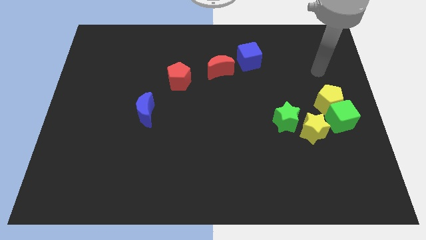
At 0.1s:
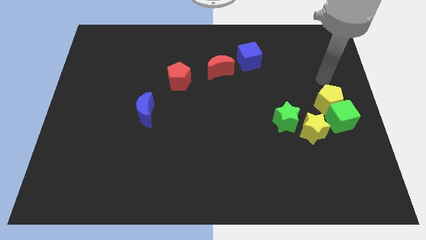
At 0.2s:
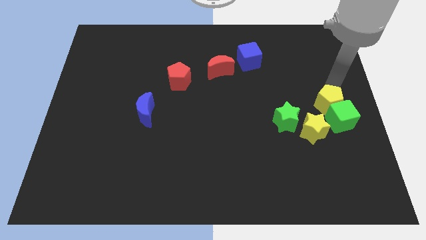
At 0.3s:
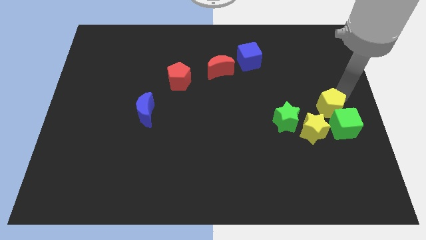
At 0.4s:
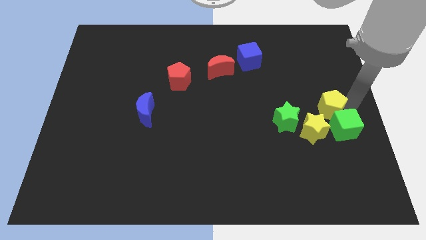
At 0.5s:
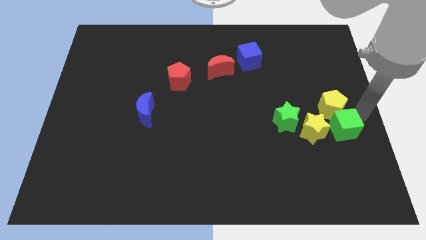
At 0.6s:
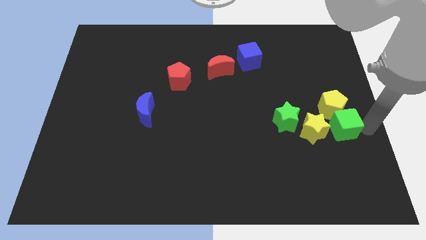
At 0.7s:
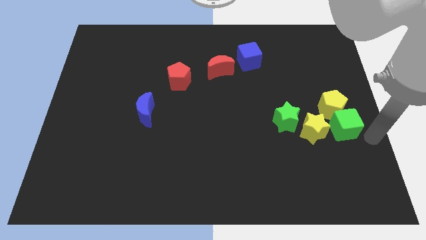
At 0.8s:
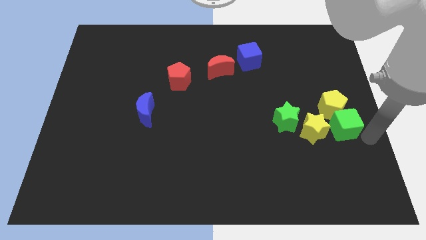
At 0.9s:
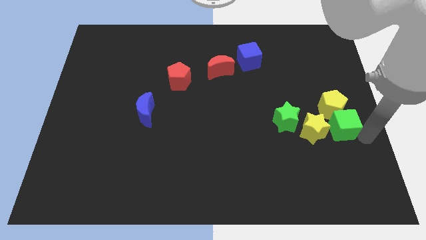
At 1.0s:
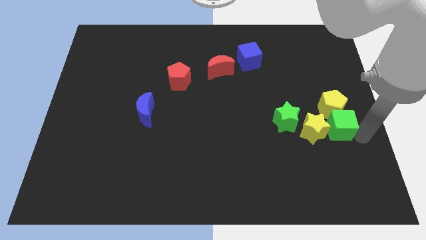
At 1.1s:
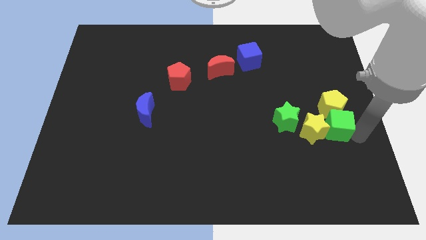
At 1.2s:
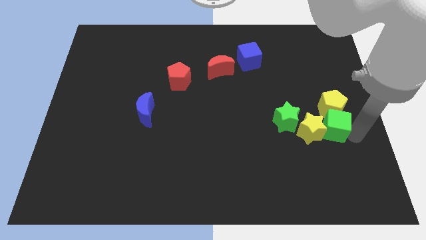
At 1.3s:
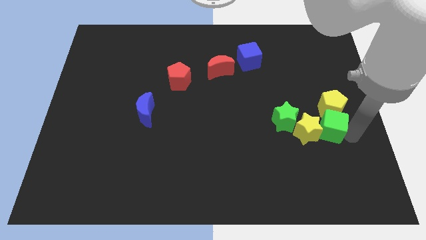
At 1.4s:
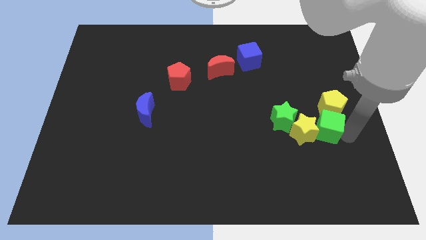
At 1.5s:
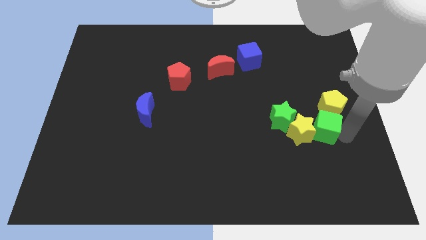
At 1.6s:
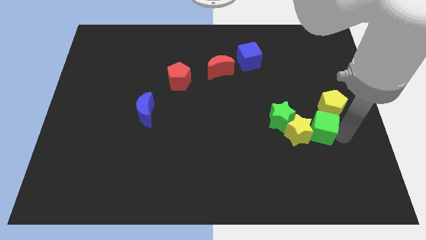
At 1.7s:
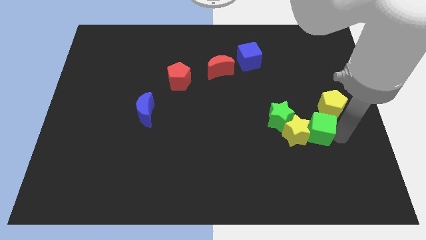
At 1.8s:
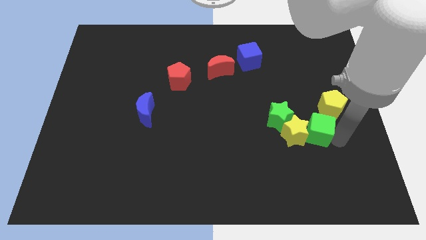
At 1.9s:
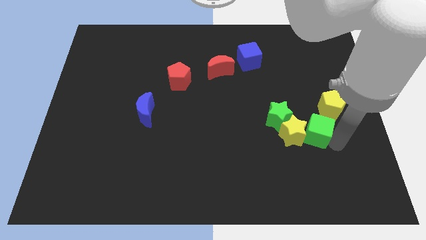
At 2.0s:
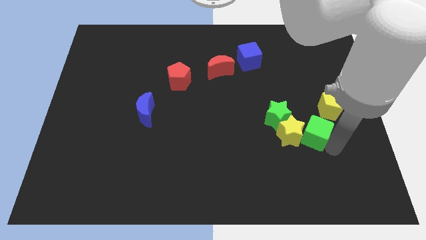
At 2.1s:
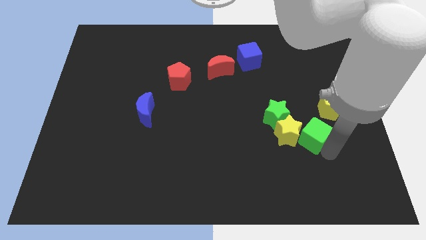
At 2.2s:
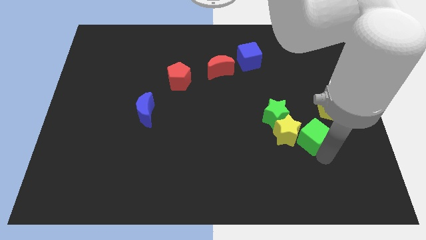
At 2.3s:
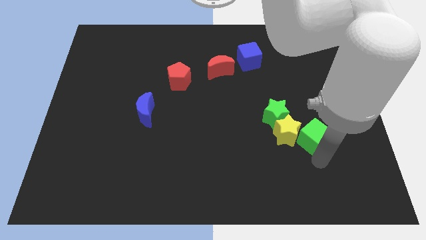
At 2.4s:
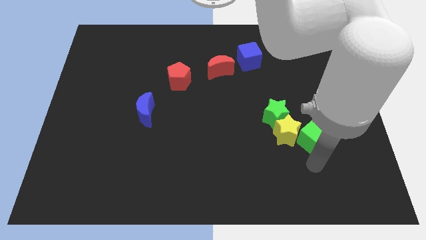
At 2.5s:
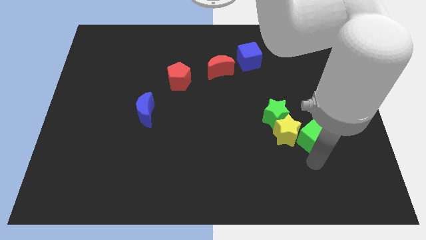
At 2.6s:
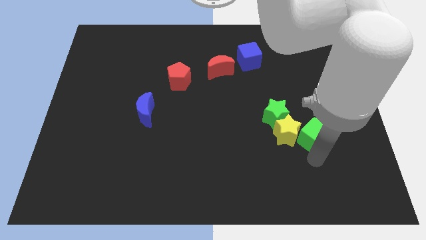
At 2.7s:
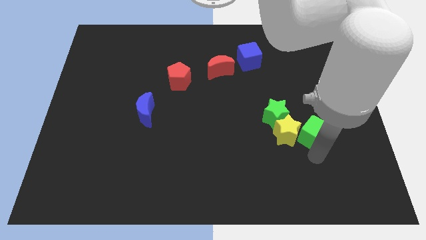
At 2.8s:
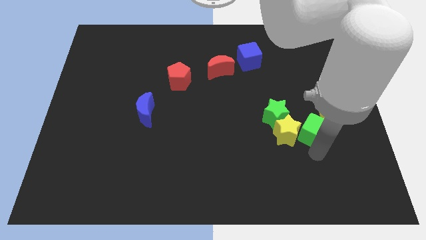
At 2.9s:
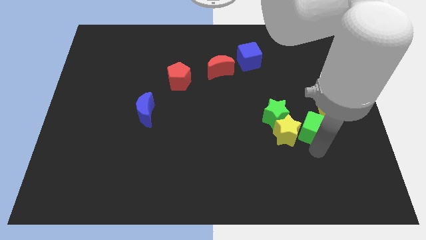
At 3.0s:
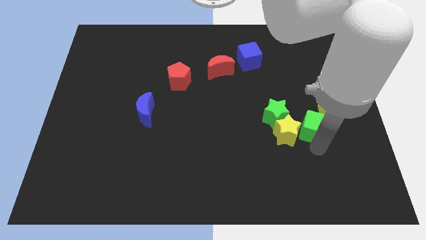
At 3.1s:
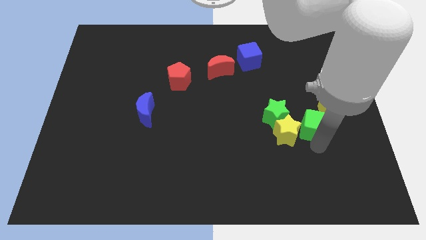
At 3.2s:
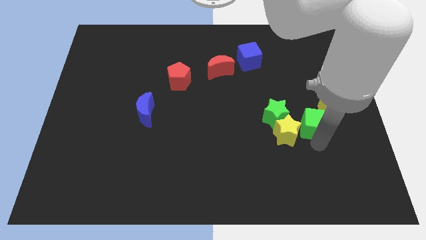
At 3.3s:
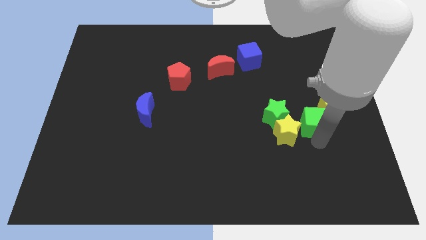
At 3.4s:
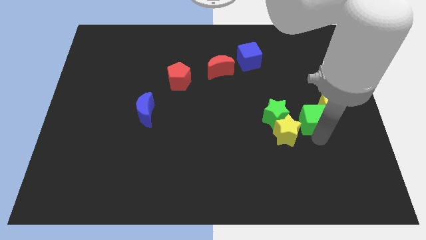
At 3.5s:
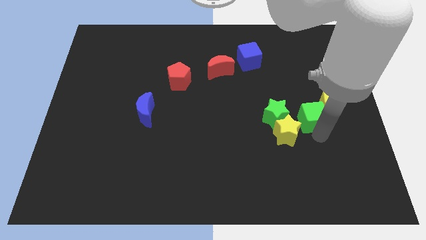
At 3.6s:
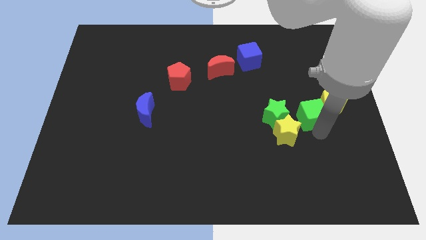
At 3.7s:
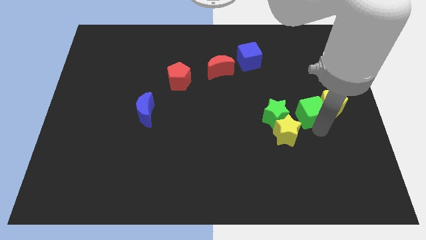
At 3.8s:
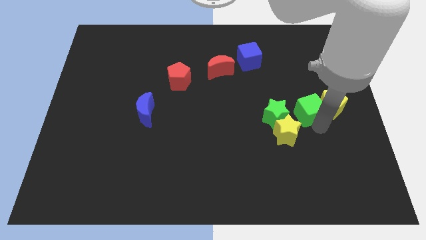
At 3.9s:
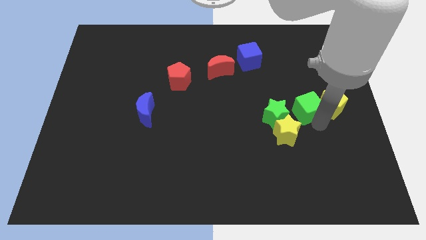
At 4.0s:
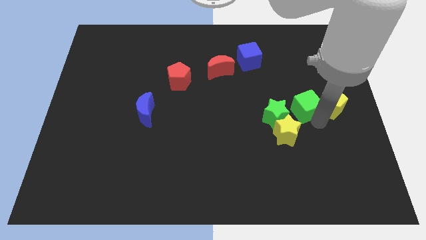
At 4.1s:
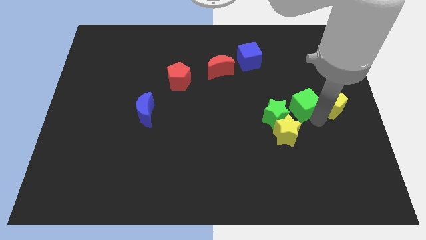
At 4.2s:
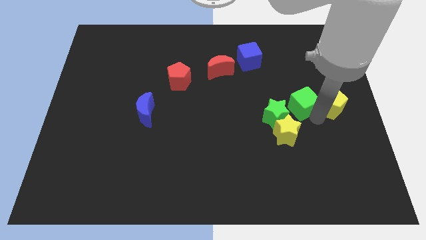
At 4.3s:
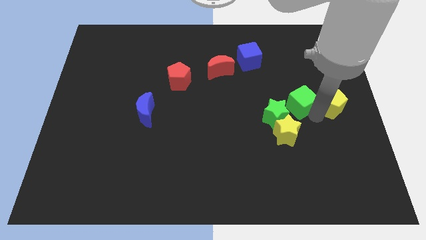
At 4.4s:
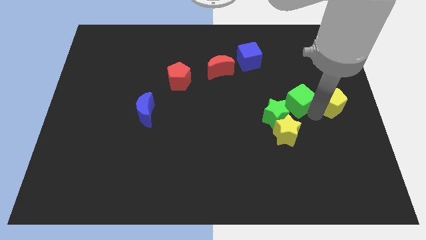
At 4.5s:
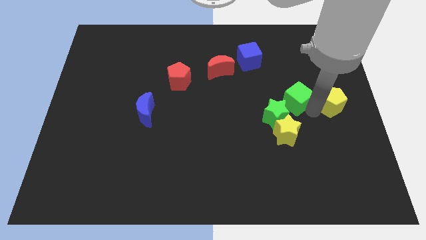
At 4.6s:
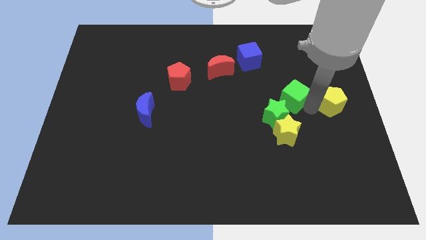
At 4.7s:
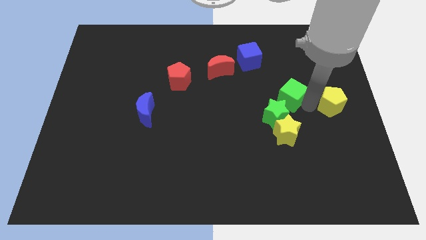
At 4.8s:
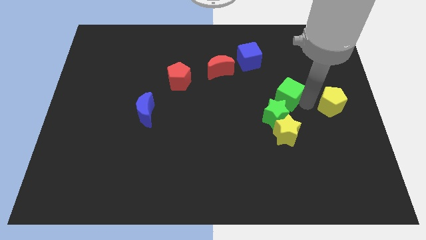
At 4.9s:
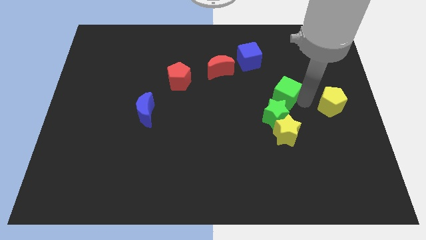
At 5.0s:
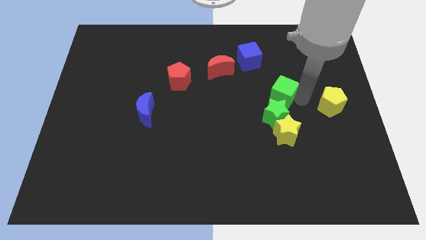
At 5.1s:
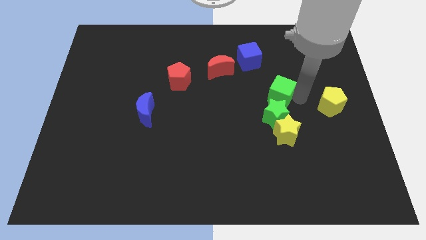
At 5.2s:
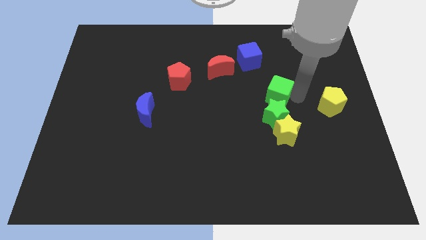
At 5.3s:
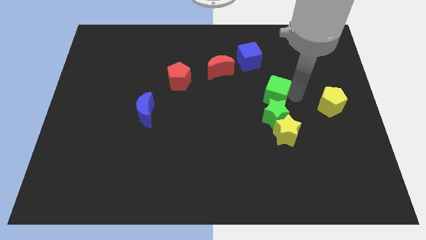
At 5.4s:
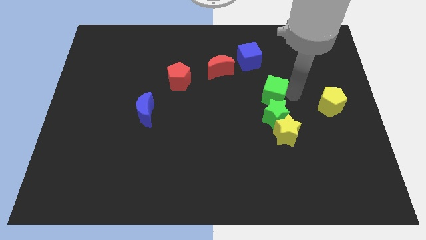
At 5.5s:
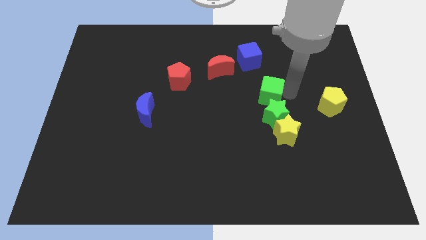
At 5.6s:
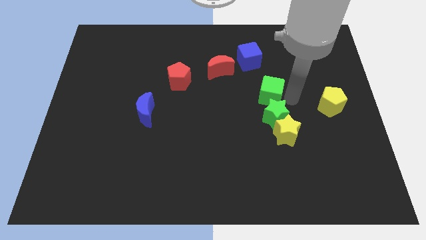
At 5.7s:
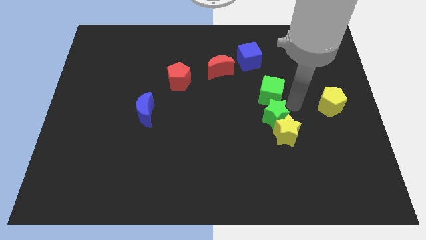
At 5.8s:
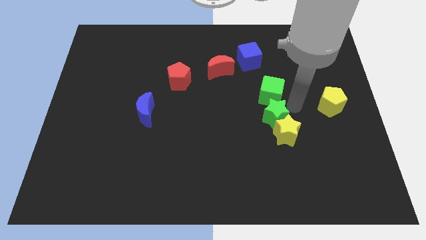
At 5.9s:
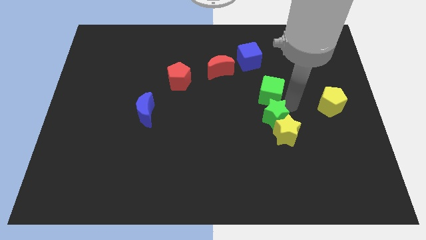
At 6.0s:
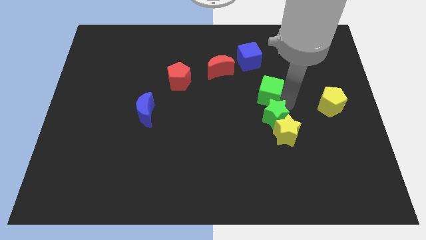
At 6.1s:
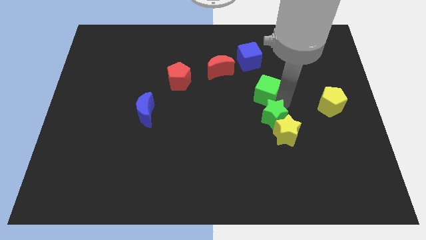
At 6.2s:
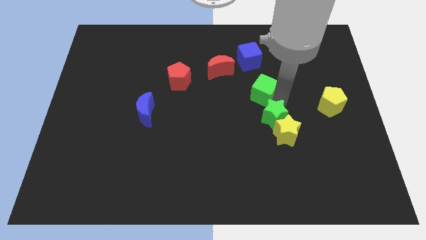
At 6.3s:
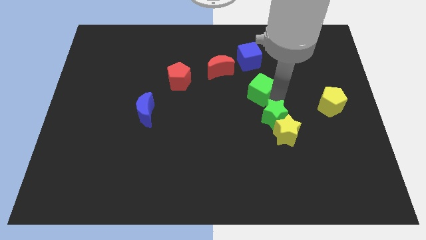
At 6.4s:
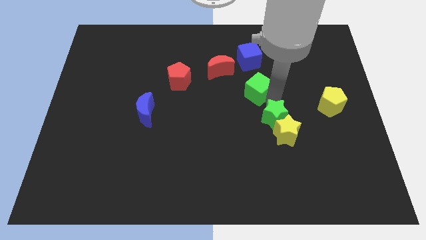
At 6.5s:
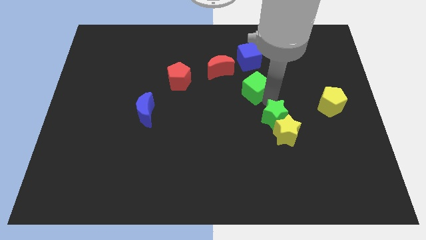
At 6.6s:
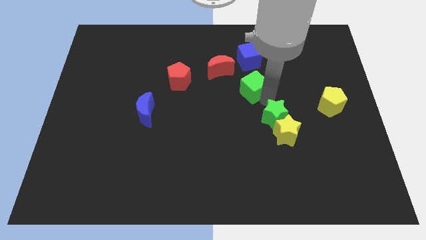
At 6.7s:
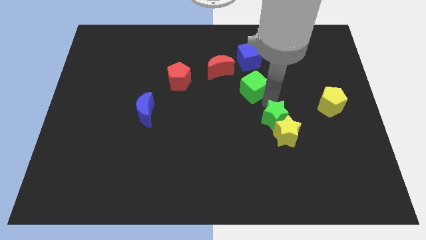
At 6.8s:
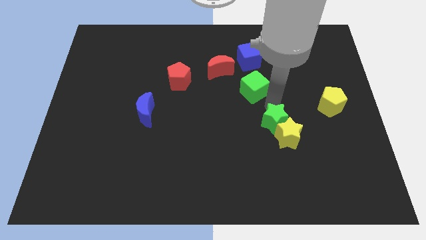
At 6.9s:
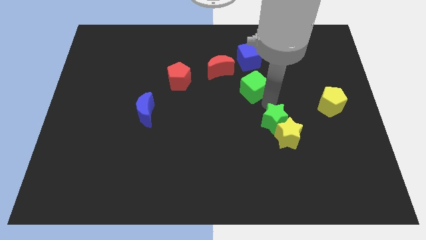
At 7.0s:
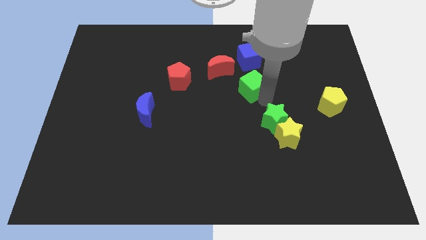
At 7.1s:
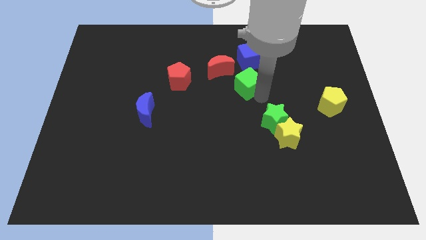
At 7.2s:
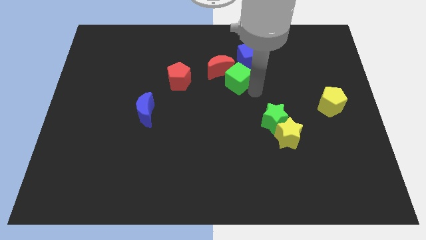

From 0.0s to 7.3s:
move the green cube close to the red moon
